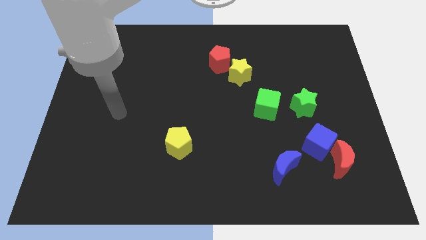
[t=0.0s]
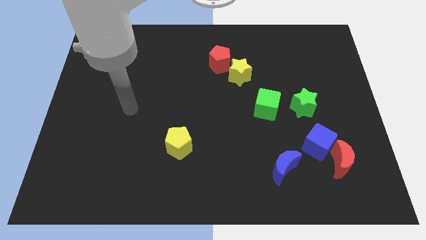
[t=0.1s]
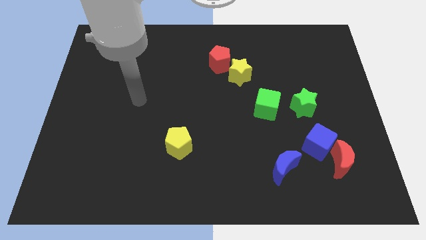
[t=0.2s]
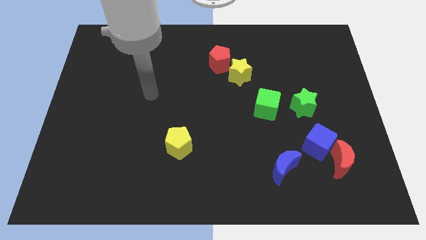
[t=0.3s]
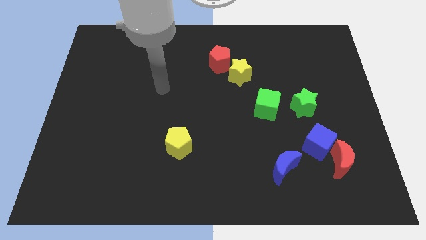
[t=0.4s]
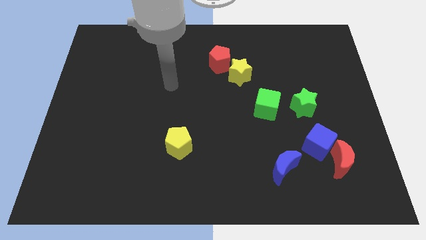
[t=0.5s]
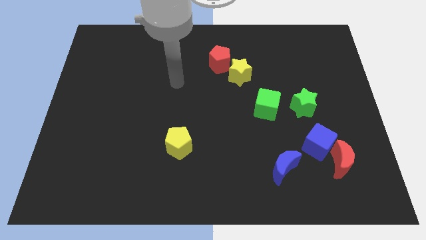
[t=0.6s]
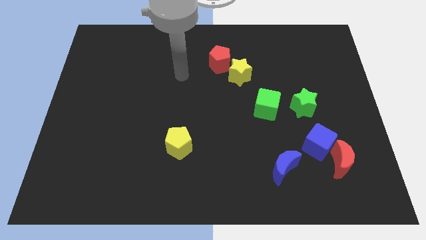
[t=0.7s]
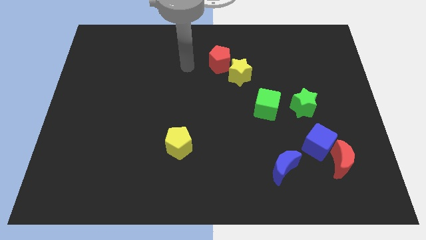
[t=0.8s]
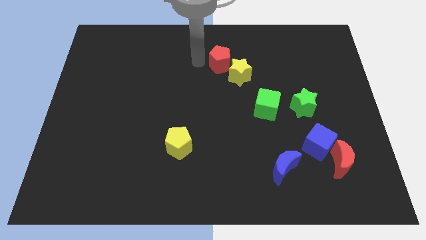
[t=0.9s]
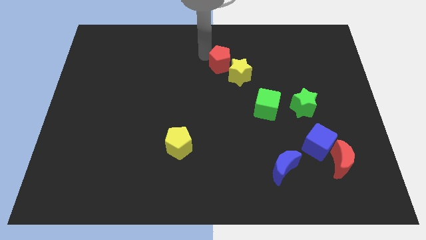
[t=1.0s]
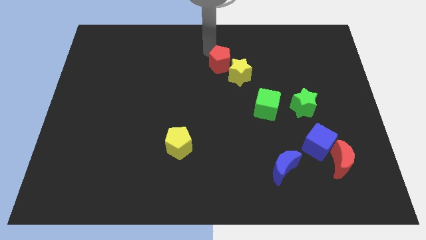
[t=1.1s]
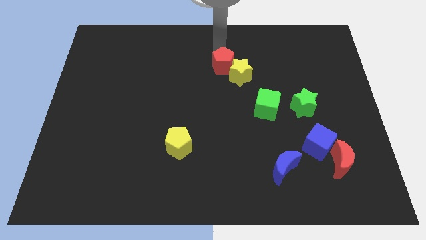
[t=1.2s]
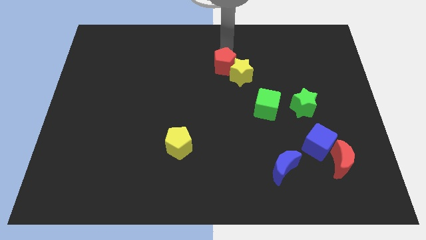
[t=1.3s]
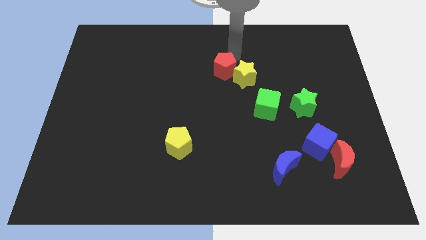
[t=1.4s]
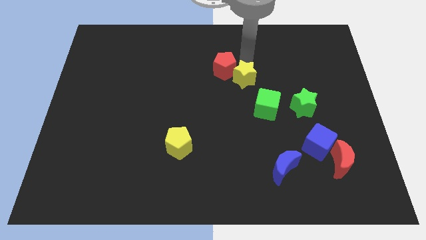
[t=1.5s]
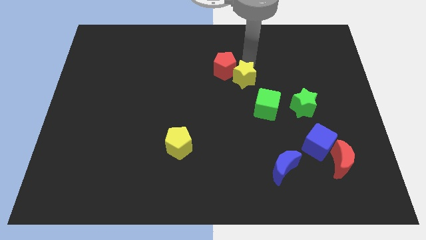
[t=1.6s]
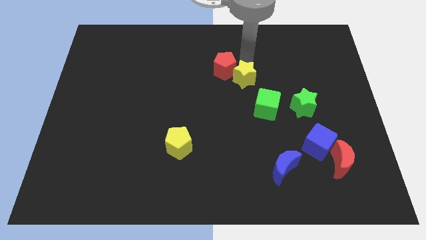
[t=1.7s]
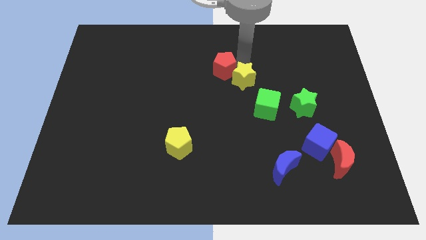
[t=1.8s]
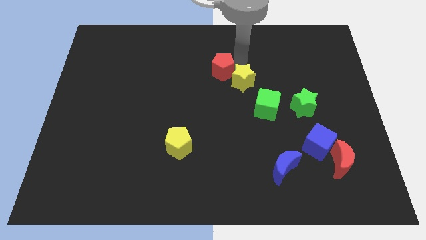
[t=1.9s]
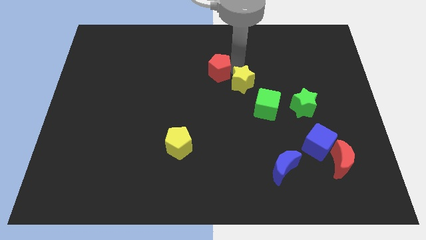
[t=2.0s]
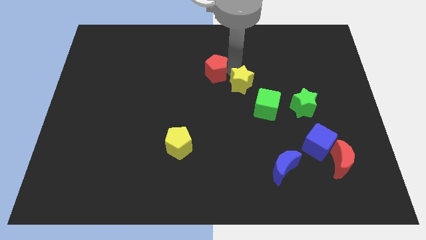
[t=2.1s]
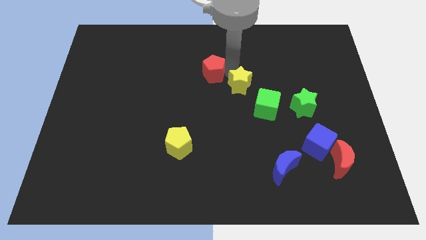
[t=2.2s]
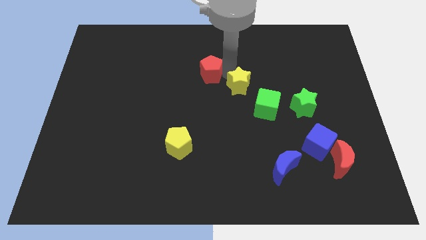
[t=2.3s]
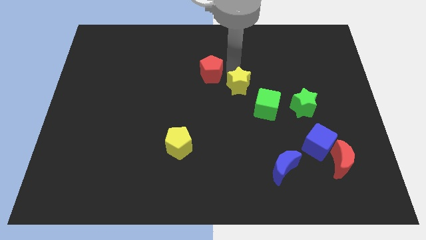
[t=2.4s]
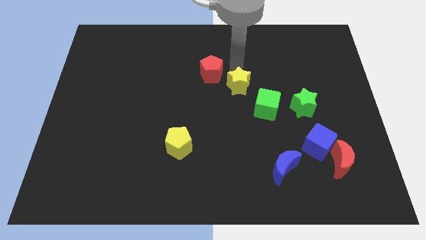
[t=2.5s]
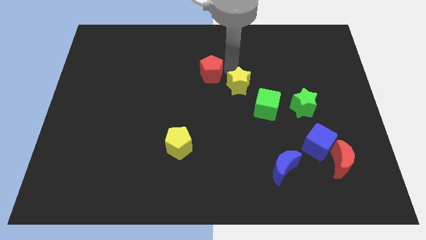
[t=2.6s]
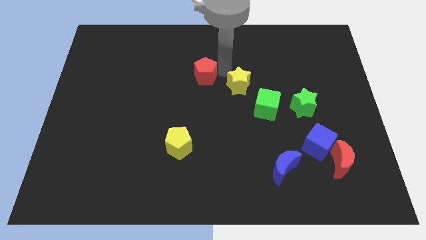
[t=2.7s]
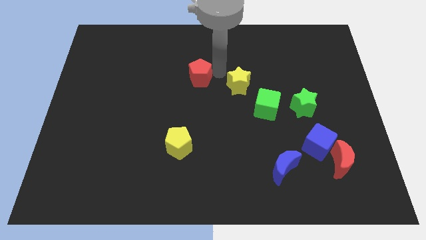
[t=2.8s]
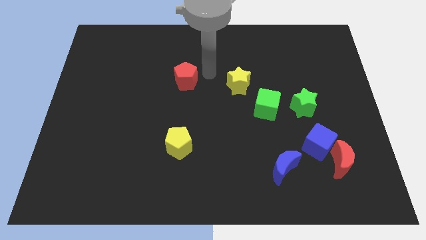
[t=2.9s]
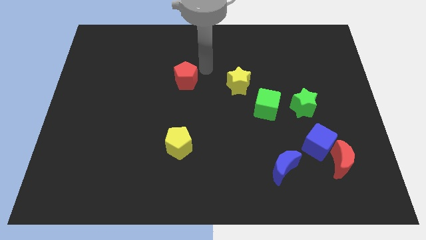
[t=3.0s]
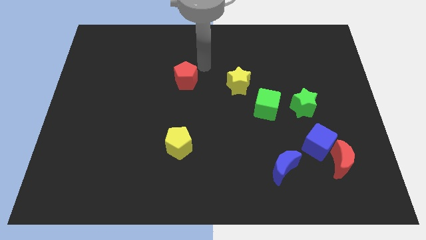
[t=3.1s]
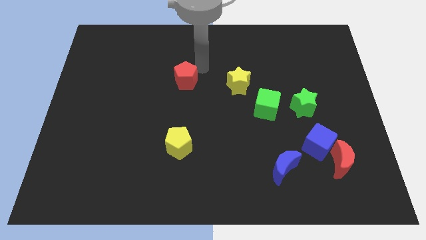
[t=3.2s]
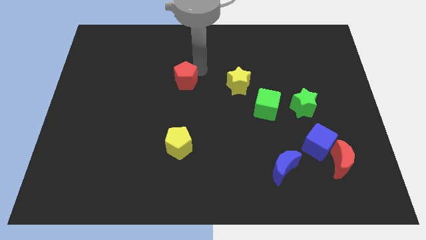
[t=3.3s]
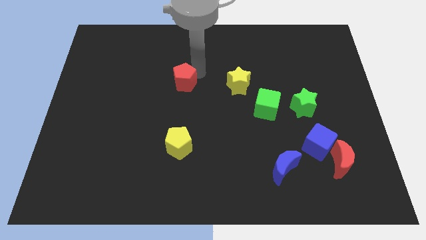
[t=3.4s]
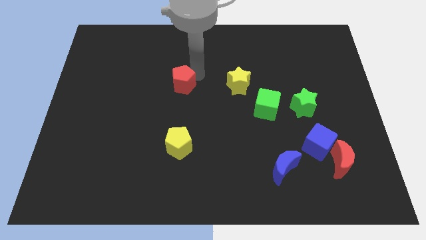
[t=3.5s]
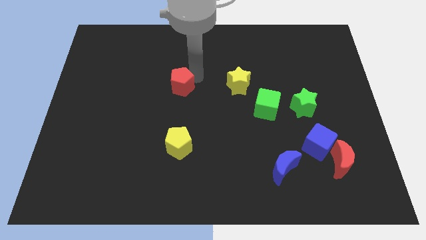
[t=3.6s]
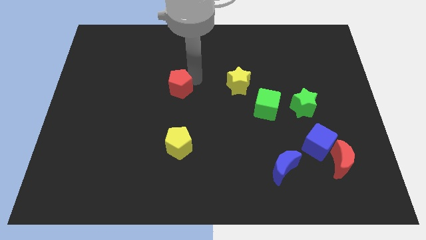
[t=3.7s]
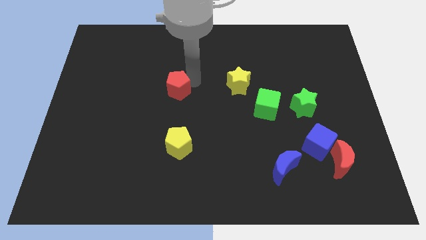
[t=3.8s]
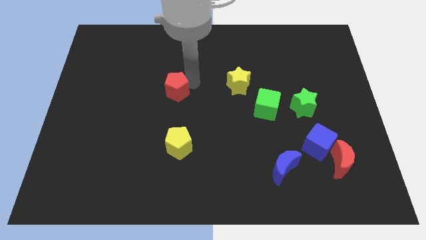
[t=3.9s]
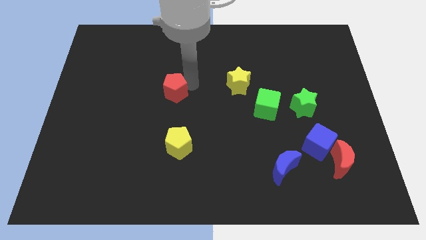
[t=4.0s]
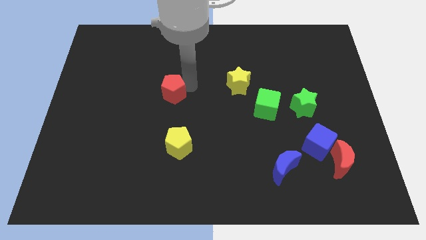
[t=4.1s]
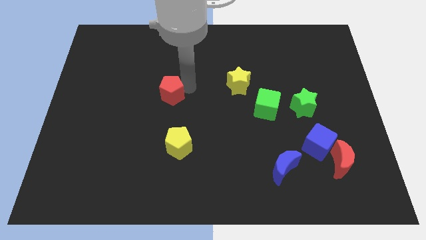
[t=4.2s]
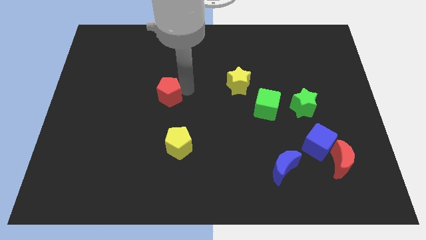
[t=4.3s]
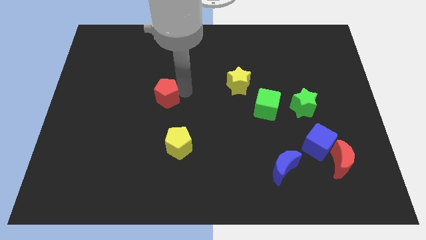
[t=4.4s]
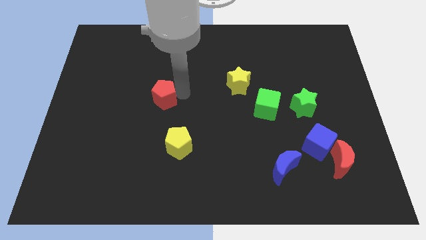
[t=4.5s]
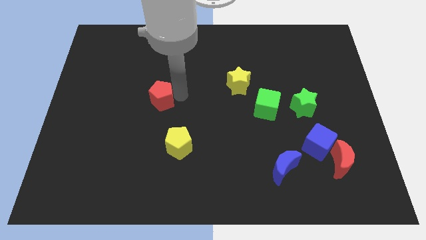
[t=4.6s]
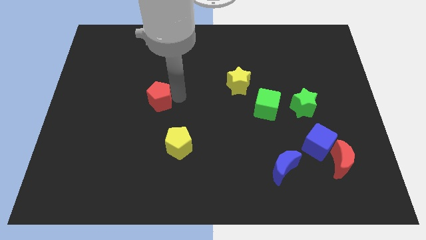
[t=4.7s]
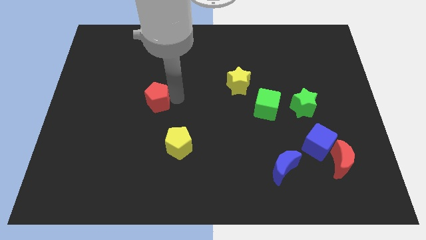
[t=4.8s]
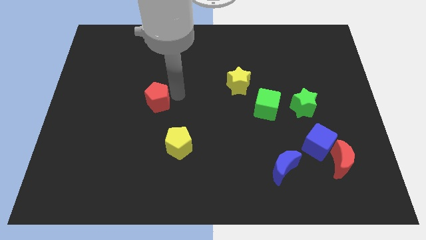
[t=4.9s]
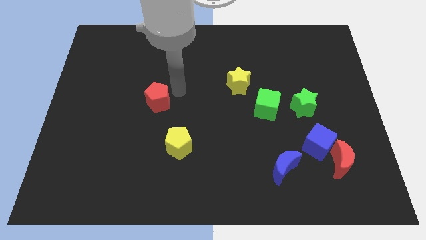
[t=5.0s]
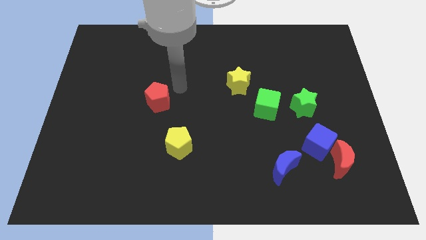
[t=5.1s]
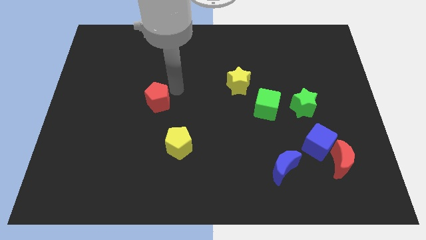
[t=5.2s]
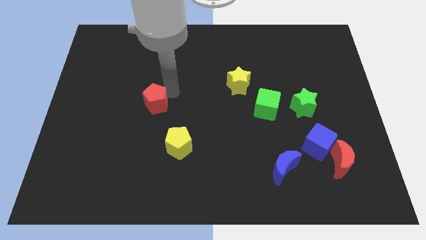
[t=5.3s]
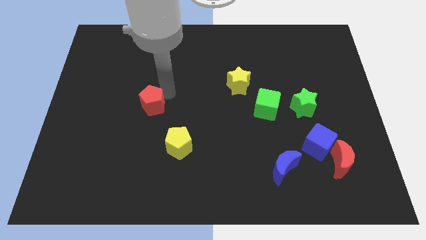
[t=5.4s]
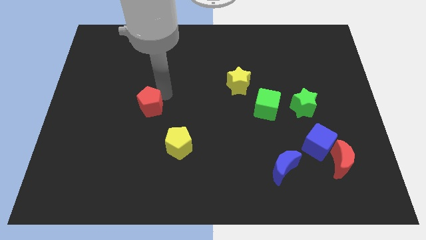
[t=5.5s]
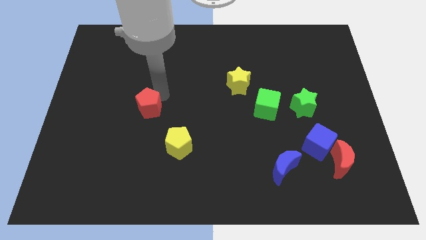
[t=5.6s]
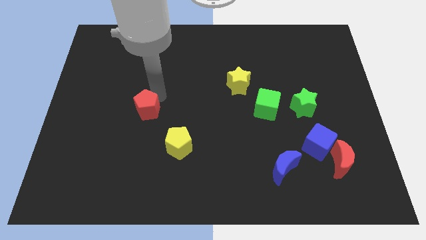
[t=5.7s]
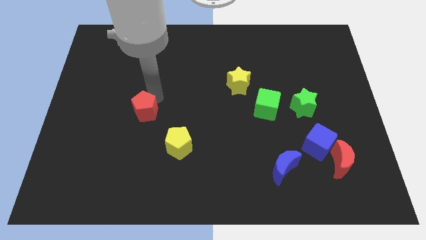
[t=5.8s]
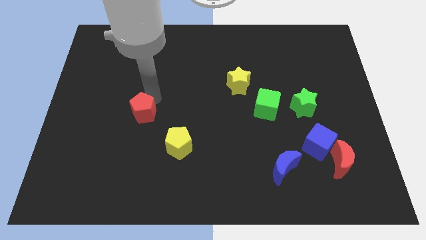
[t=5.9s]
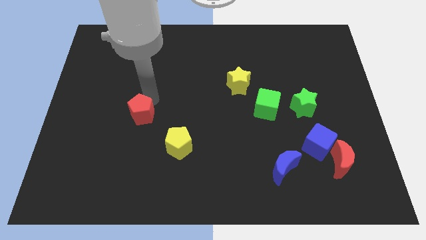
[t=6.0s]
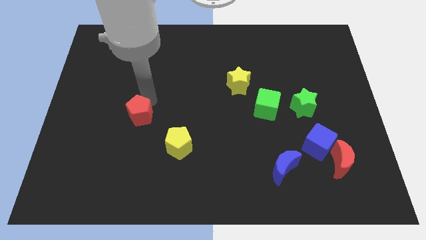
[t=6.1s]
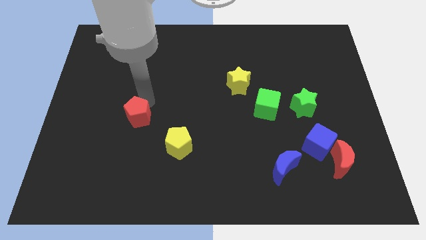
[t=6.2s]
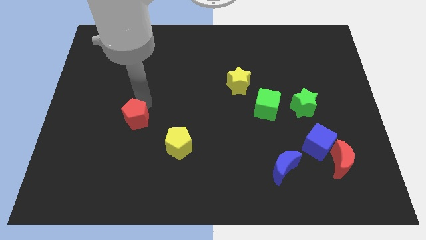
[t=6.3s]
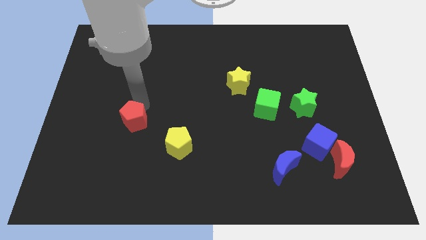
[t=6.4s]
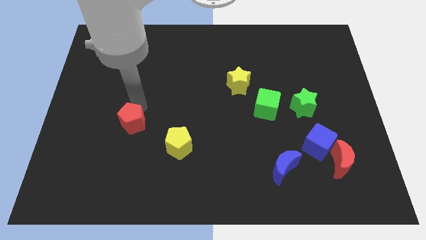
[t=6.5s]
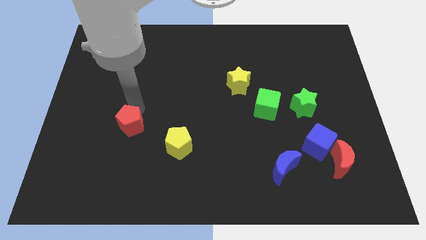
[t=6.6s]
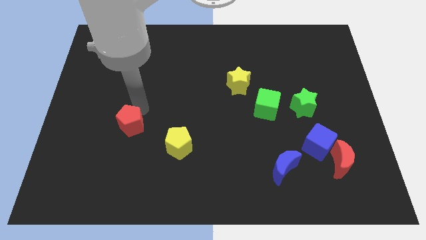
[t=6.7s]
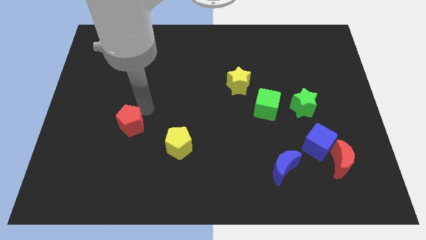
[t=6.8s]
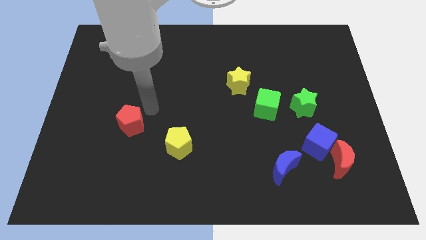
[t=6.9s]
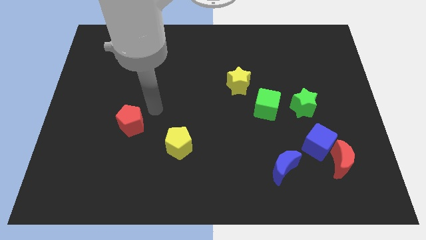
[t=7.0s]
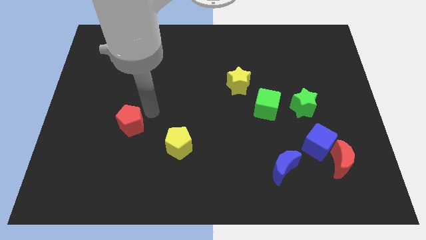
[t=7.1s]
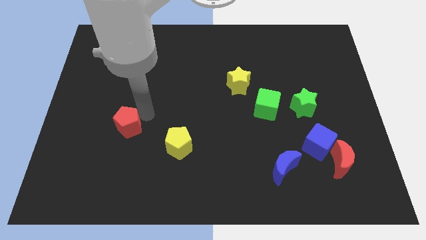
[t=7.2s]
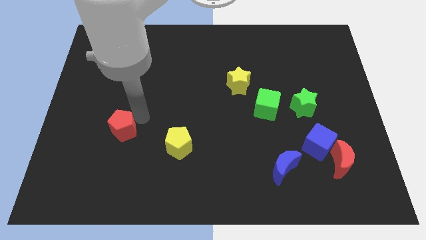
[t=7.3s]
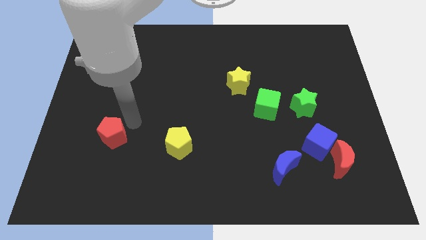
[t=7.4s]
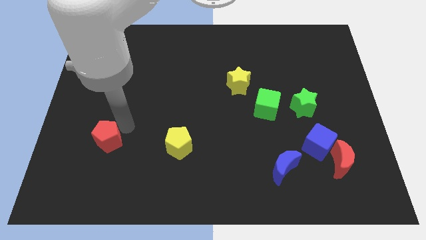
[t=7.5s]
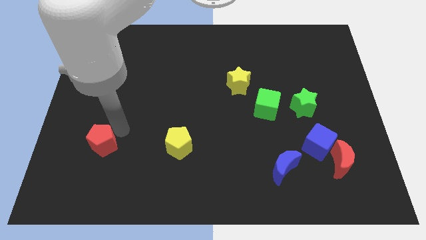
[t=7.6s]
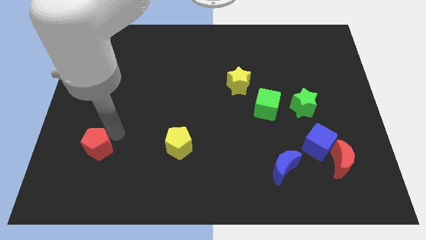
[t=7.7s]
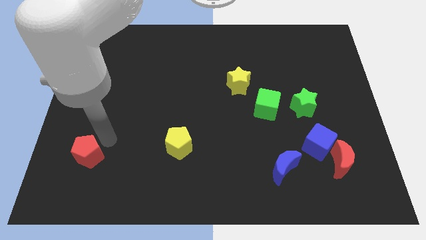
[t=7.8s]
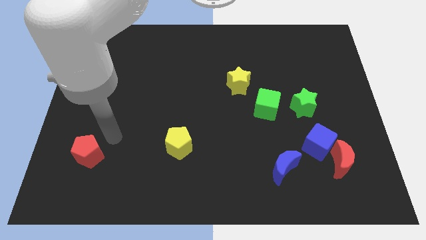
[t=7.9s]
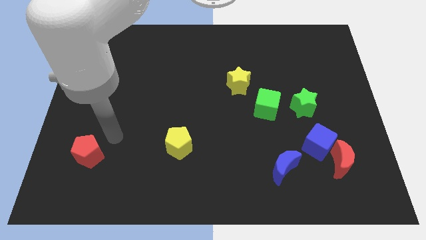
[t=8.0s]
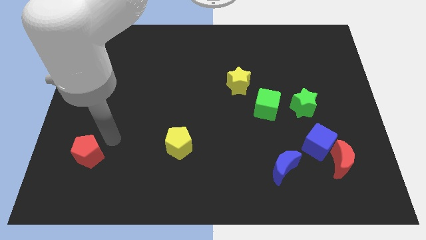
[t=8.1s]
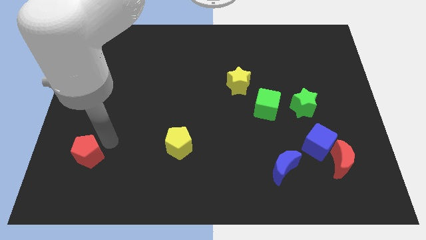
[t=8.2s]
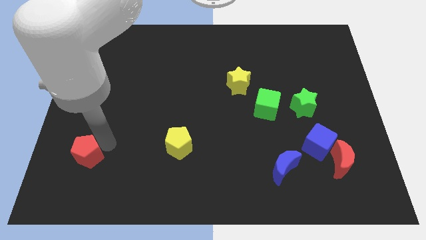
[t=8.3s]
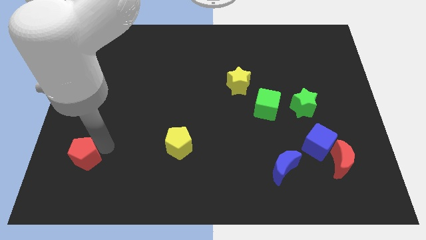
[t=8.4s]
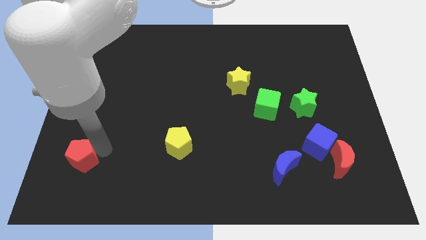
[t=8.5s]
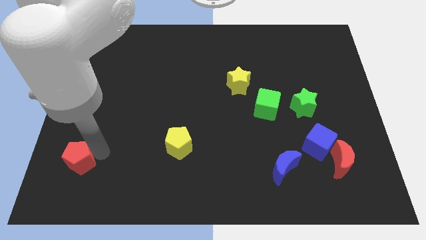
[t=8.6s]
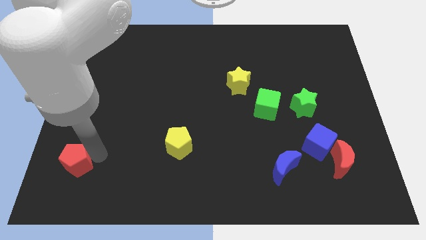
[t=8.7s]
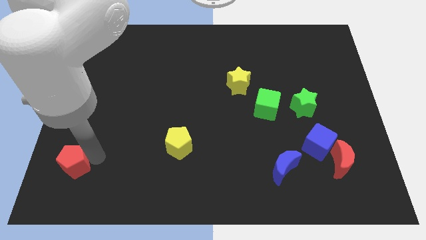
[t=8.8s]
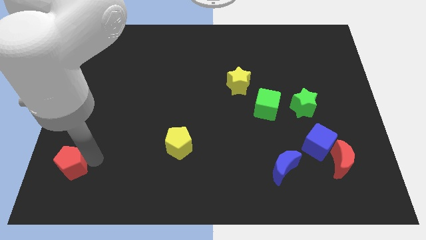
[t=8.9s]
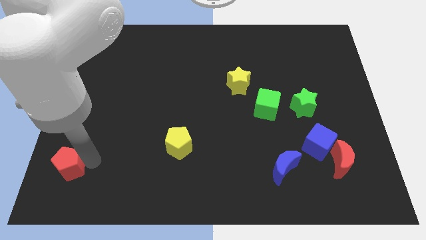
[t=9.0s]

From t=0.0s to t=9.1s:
move the red pentagon to the lower left corner
